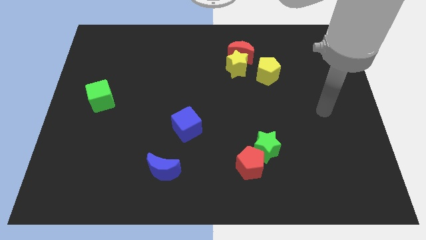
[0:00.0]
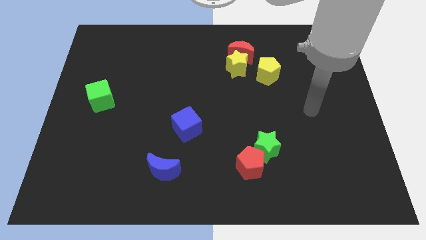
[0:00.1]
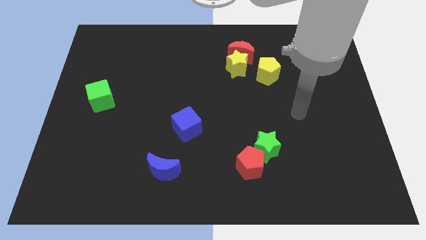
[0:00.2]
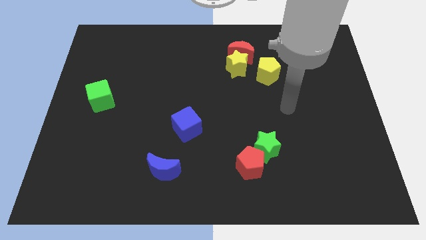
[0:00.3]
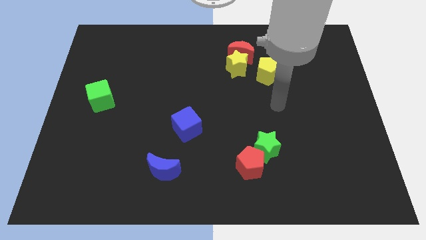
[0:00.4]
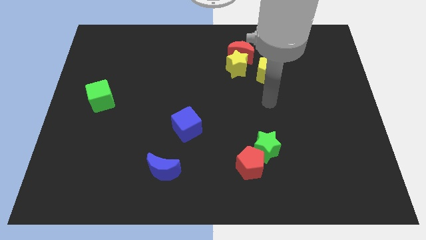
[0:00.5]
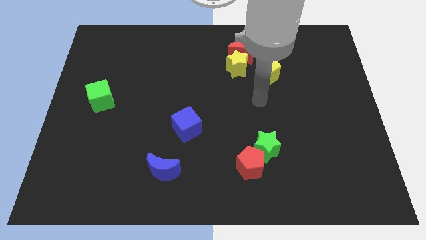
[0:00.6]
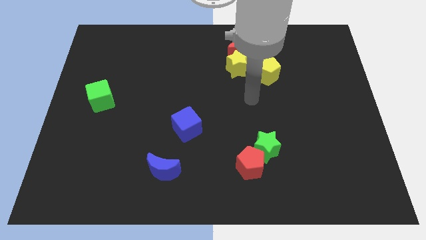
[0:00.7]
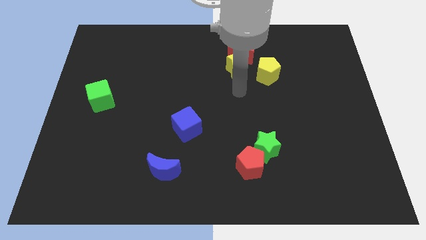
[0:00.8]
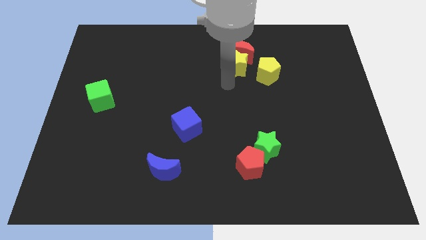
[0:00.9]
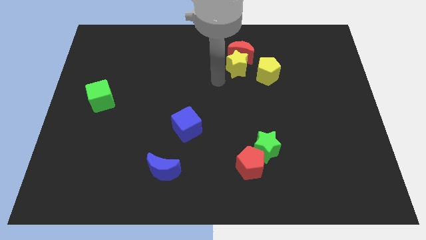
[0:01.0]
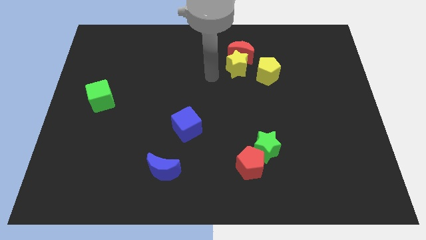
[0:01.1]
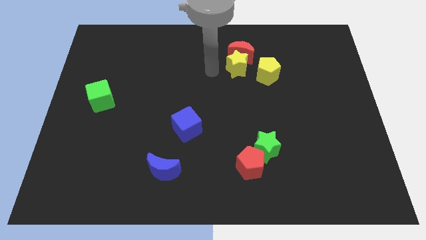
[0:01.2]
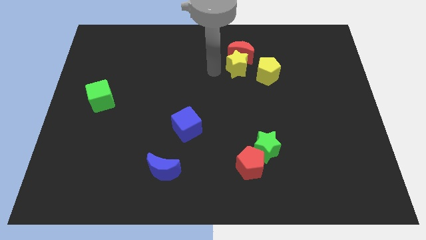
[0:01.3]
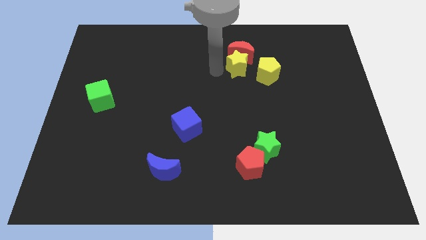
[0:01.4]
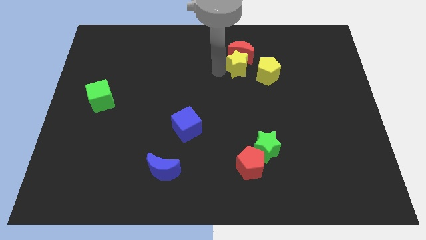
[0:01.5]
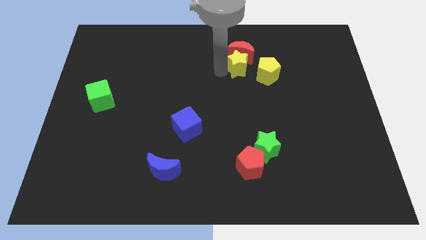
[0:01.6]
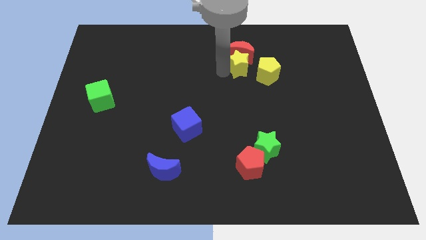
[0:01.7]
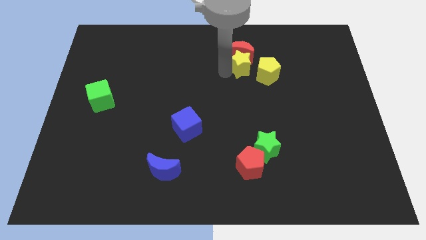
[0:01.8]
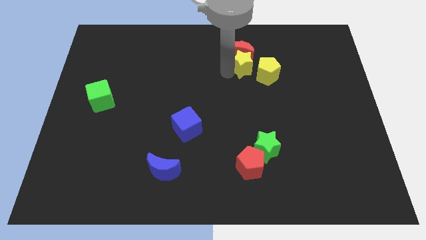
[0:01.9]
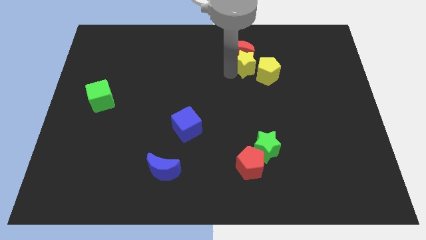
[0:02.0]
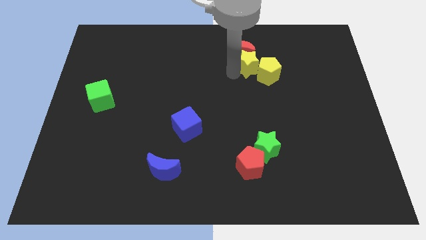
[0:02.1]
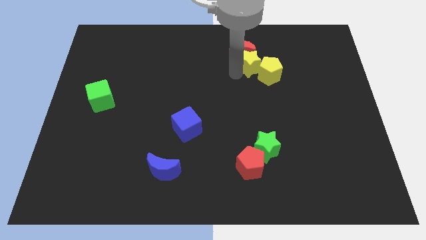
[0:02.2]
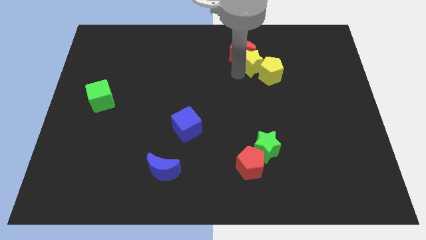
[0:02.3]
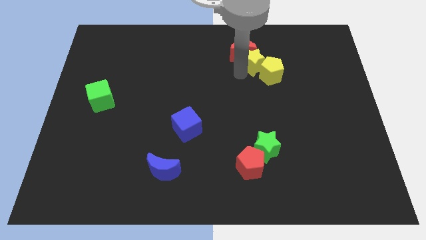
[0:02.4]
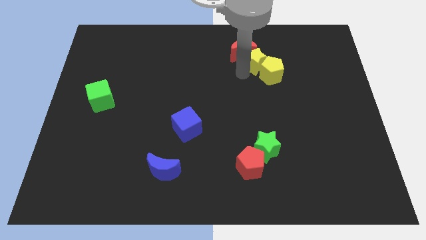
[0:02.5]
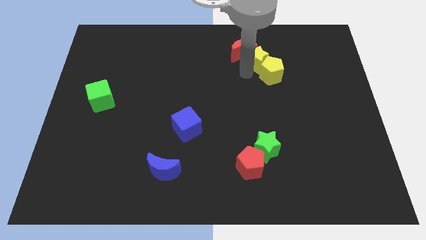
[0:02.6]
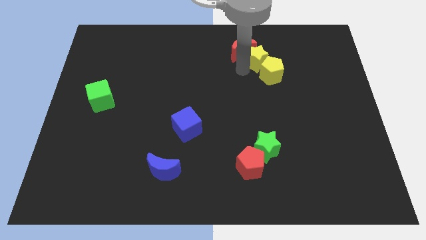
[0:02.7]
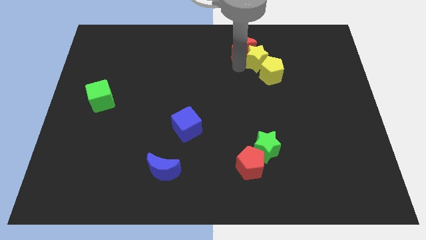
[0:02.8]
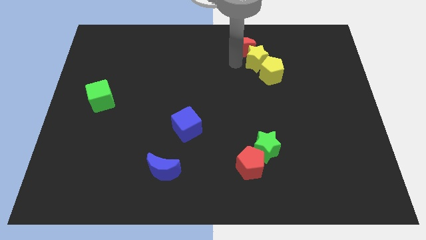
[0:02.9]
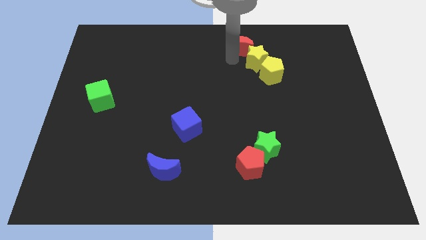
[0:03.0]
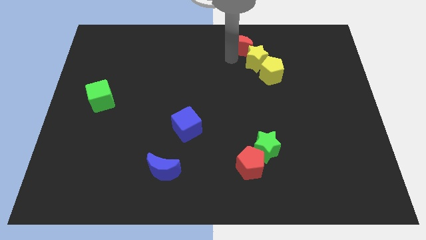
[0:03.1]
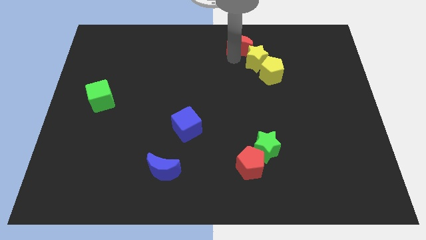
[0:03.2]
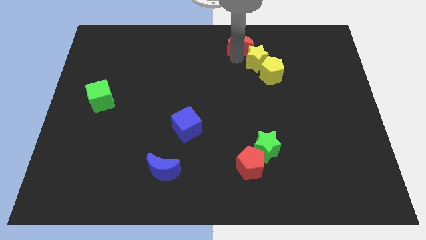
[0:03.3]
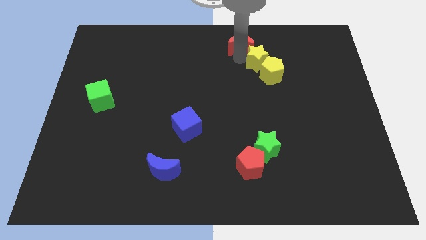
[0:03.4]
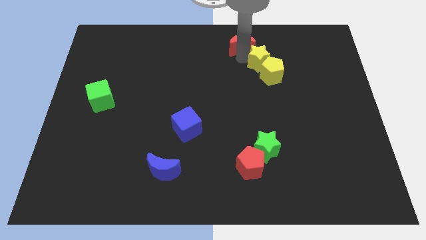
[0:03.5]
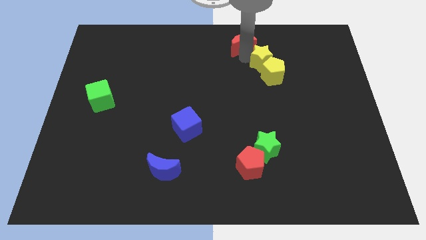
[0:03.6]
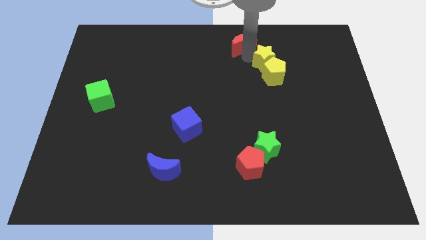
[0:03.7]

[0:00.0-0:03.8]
slightly move the yellow star right

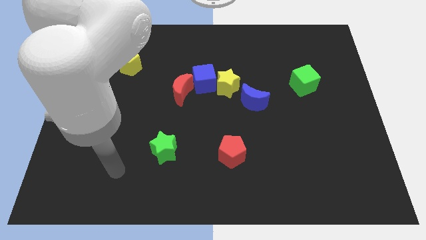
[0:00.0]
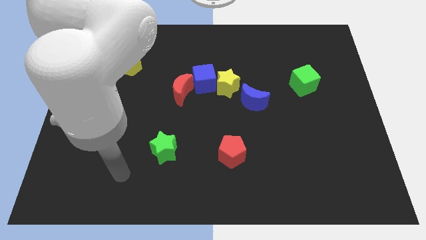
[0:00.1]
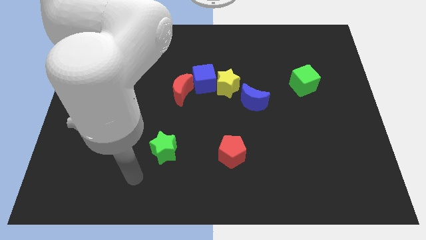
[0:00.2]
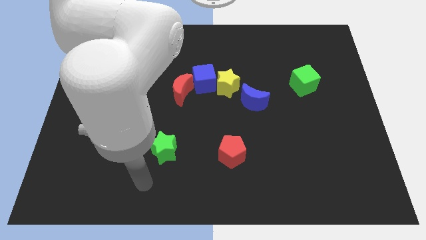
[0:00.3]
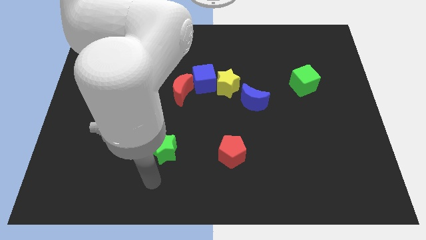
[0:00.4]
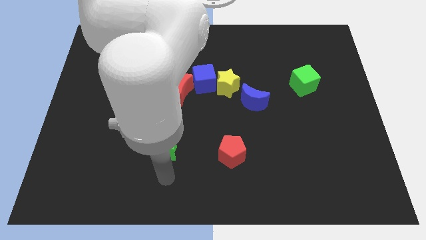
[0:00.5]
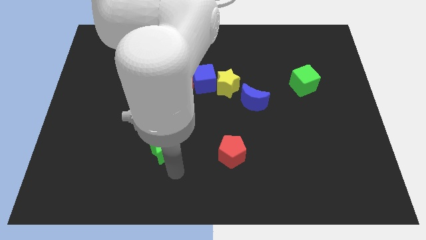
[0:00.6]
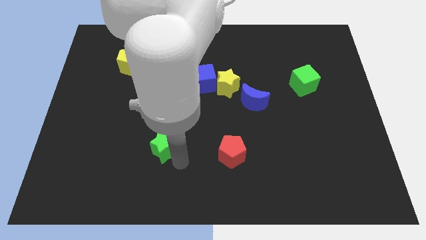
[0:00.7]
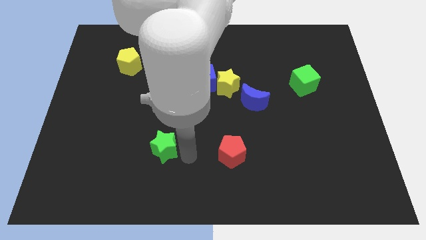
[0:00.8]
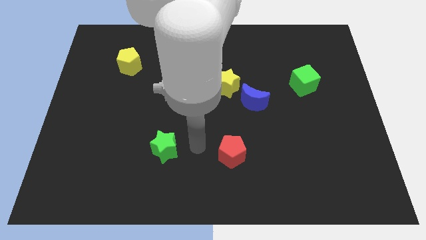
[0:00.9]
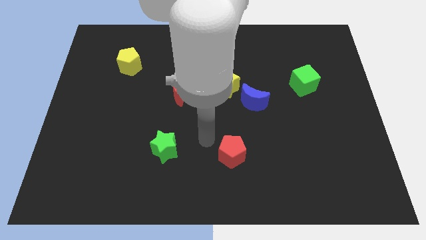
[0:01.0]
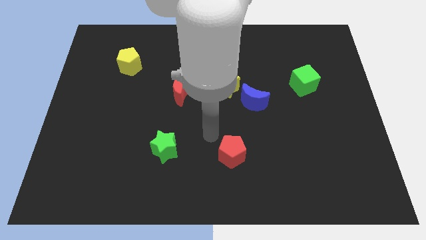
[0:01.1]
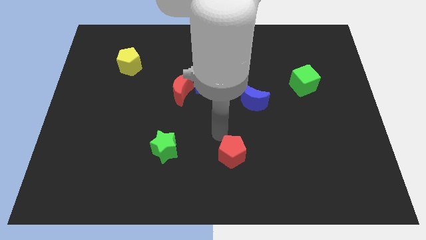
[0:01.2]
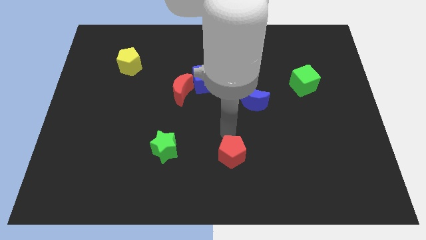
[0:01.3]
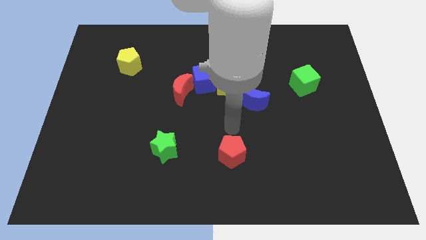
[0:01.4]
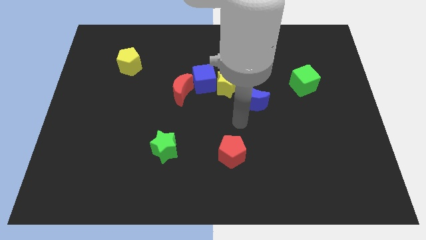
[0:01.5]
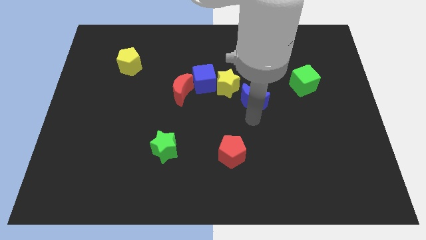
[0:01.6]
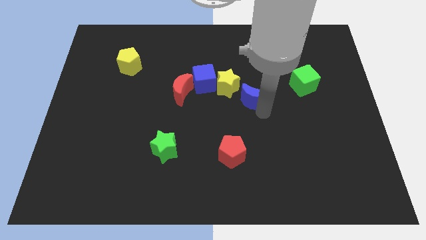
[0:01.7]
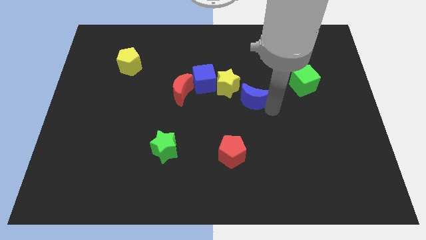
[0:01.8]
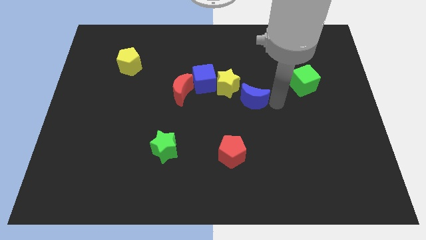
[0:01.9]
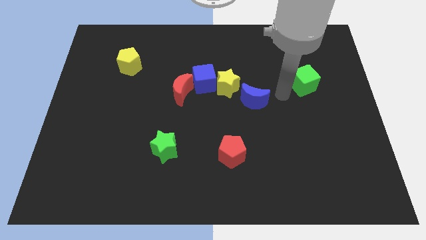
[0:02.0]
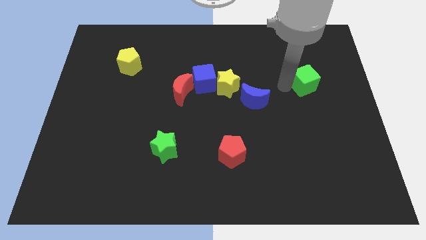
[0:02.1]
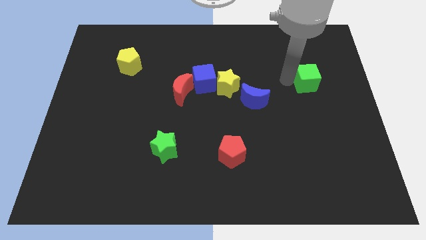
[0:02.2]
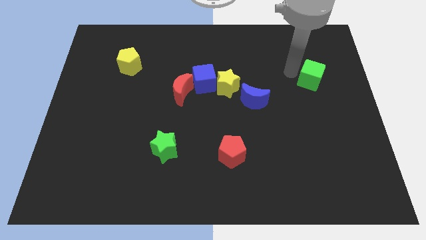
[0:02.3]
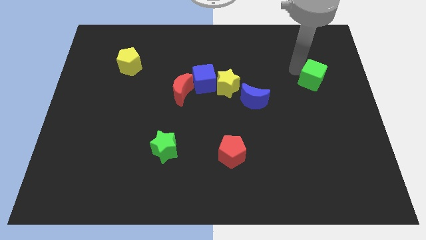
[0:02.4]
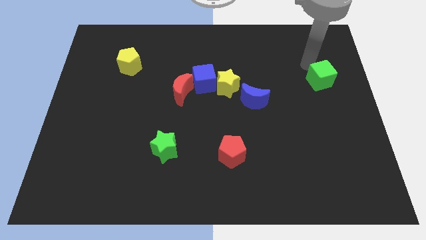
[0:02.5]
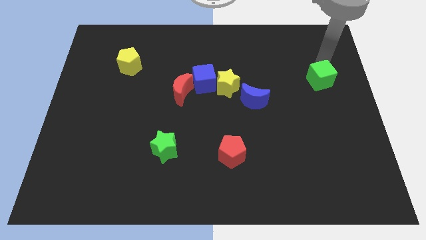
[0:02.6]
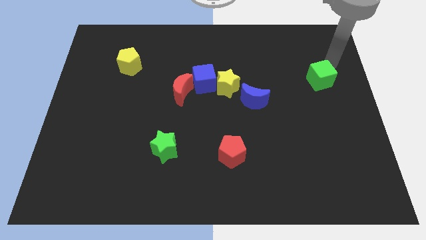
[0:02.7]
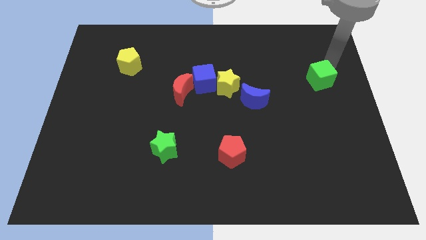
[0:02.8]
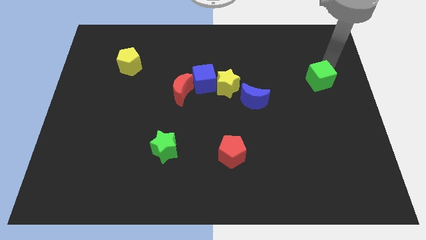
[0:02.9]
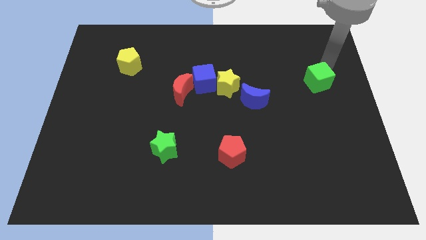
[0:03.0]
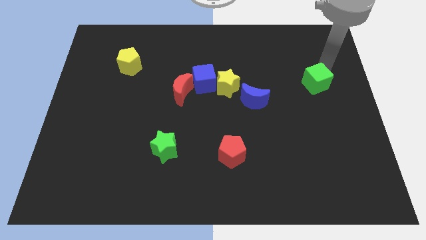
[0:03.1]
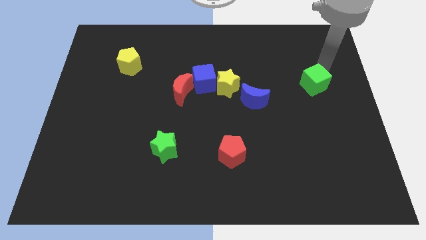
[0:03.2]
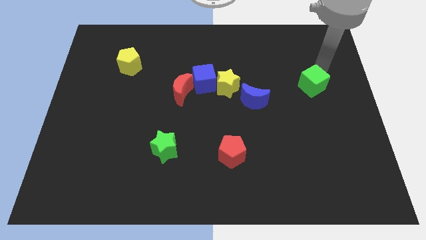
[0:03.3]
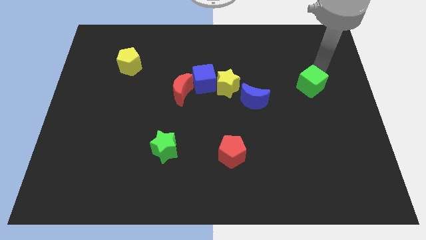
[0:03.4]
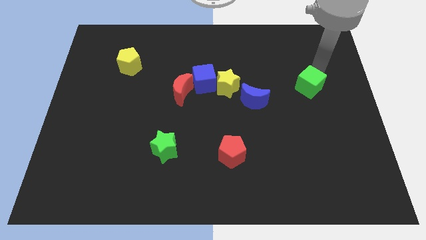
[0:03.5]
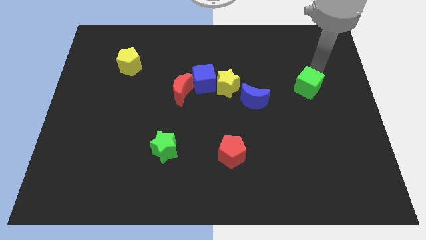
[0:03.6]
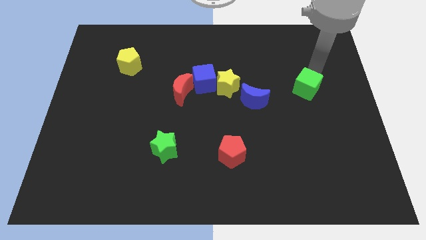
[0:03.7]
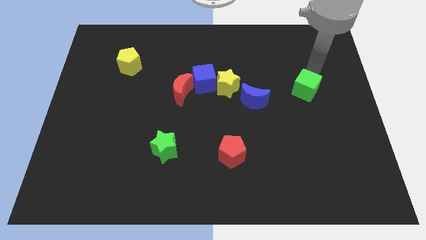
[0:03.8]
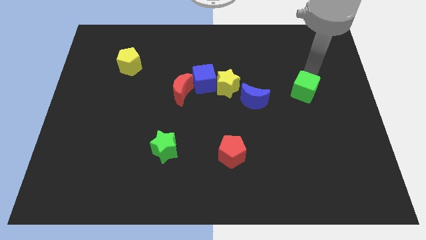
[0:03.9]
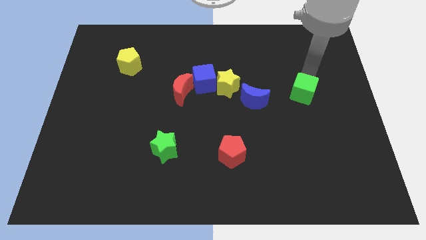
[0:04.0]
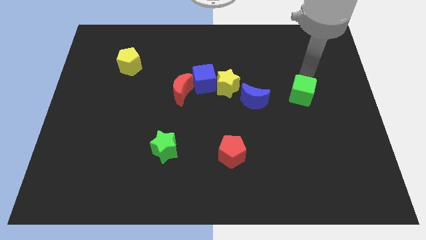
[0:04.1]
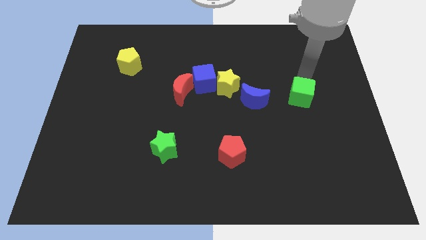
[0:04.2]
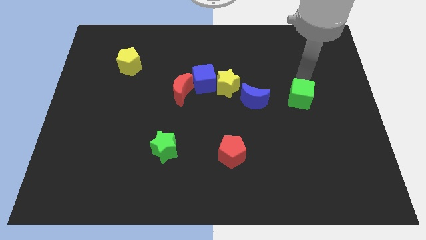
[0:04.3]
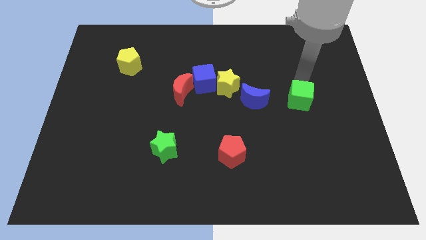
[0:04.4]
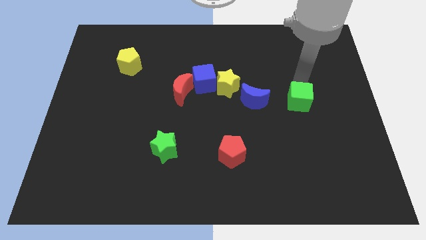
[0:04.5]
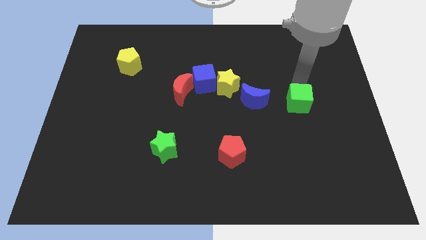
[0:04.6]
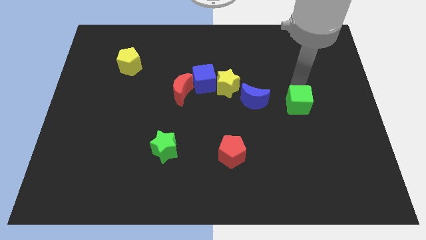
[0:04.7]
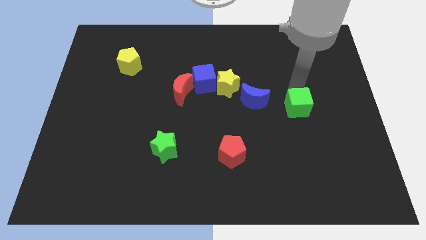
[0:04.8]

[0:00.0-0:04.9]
slide the green cube down slightly
